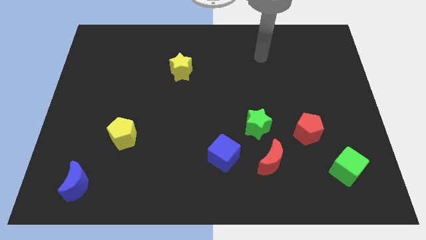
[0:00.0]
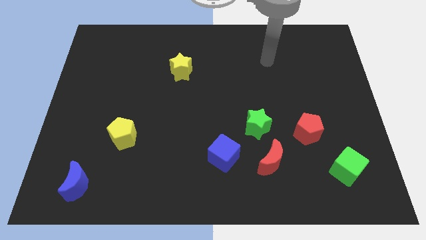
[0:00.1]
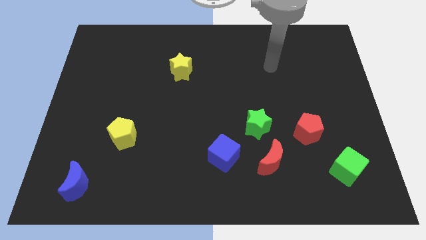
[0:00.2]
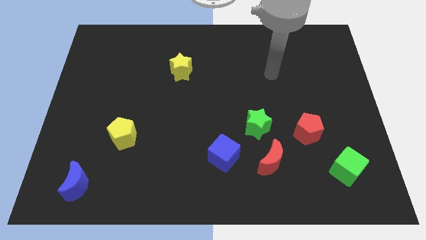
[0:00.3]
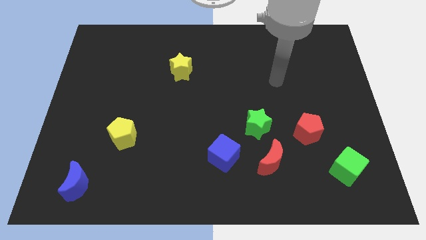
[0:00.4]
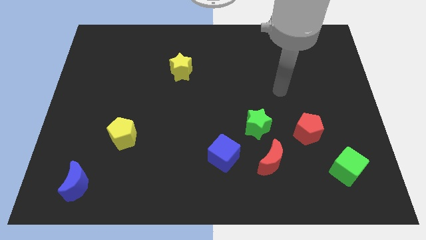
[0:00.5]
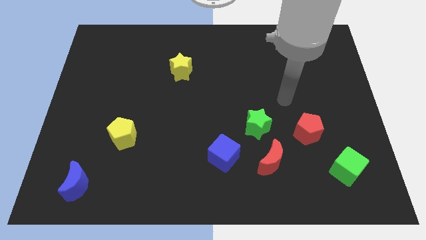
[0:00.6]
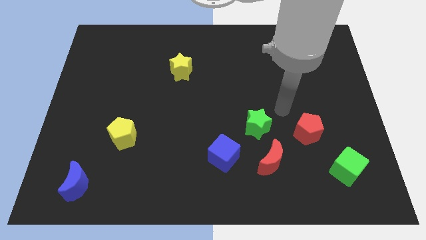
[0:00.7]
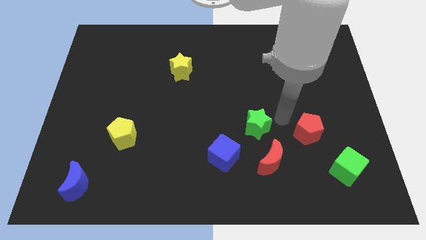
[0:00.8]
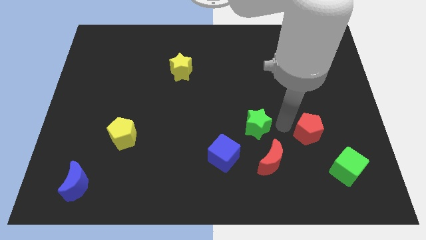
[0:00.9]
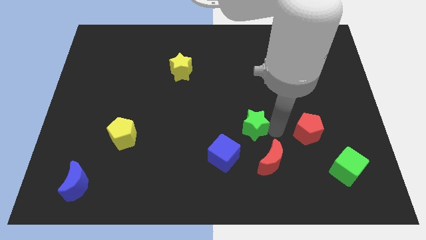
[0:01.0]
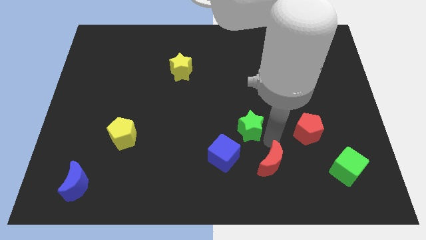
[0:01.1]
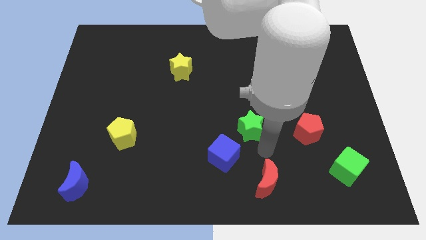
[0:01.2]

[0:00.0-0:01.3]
move the green star away from the red moon

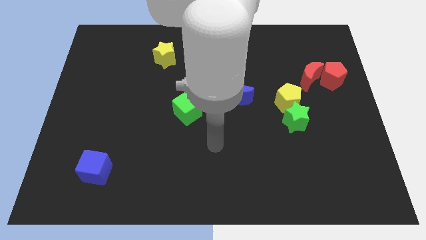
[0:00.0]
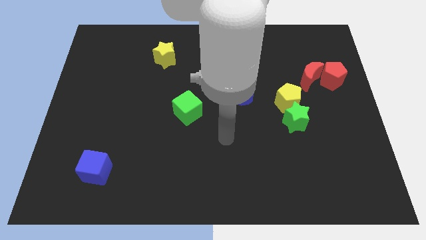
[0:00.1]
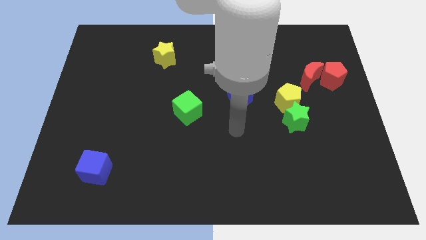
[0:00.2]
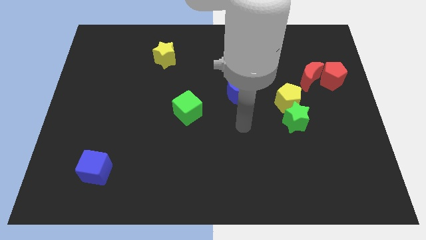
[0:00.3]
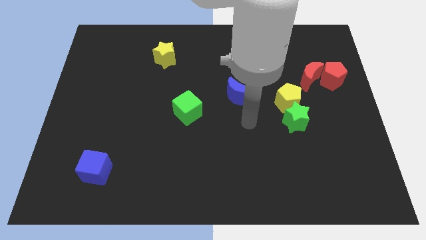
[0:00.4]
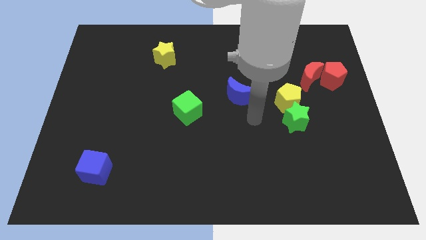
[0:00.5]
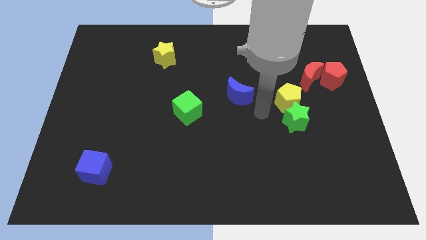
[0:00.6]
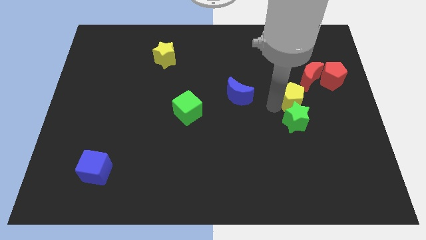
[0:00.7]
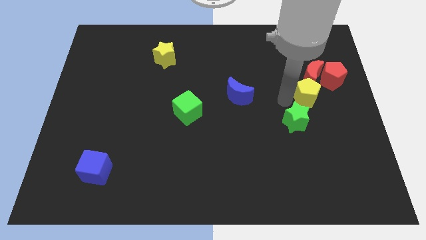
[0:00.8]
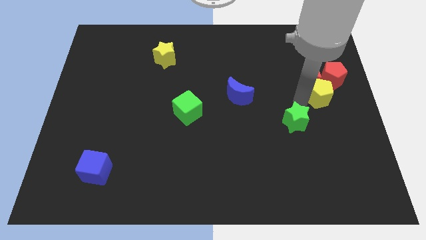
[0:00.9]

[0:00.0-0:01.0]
pull the green star apart from the yellow pentagon

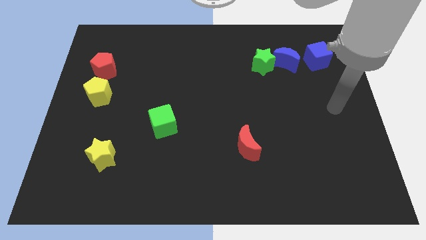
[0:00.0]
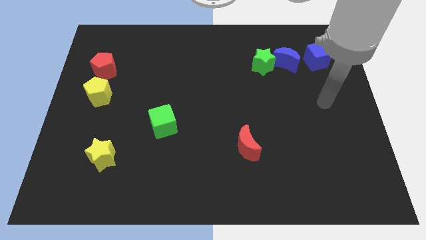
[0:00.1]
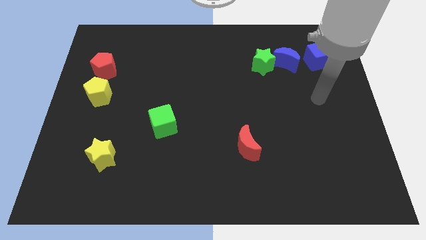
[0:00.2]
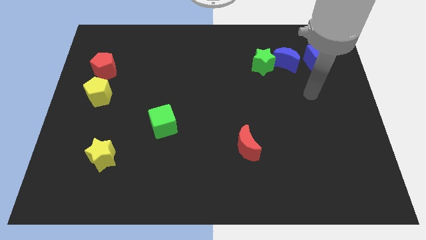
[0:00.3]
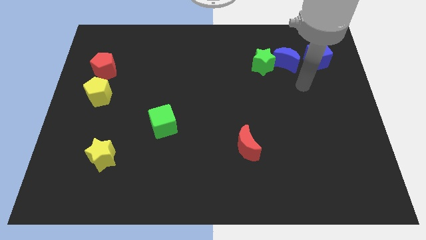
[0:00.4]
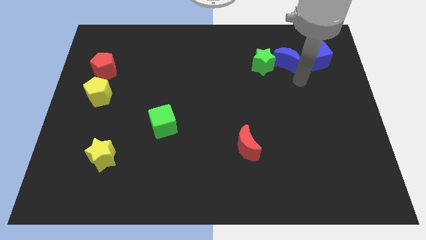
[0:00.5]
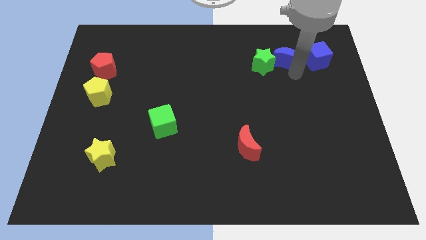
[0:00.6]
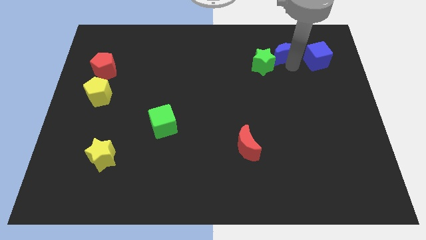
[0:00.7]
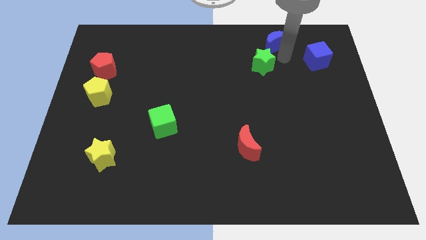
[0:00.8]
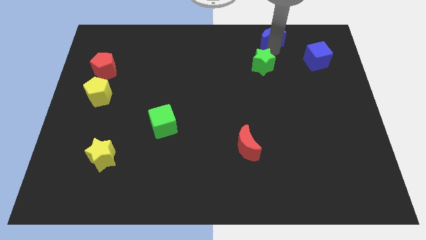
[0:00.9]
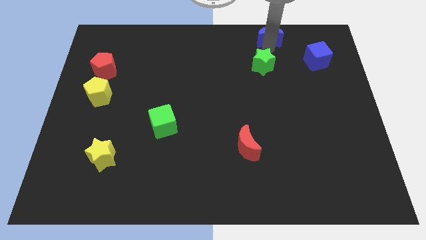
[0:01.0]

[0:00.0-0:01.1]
separate the green star from the blue moon

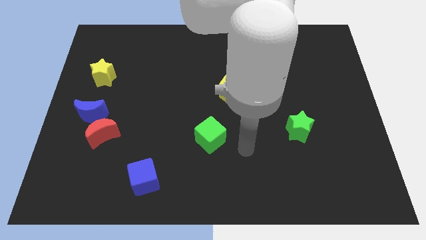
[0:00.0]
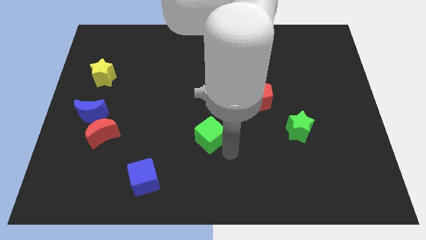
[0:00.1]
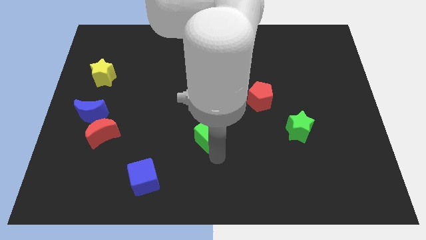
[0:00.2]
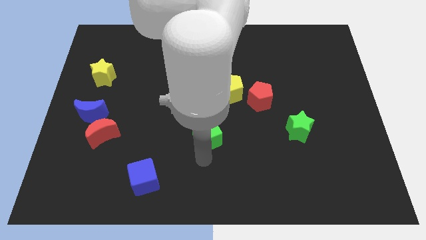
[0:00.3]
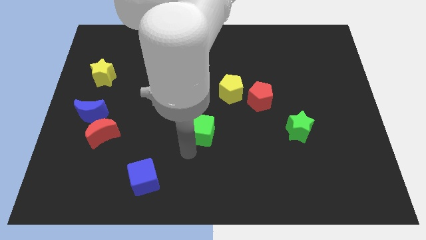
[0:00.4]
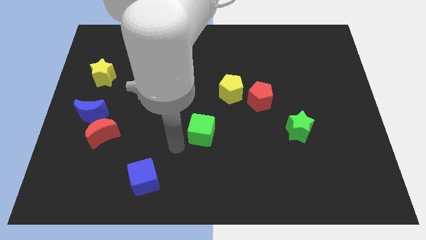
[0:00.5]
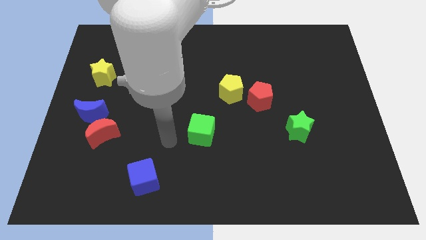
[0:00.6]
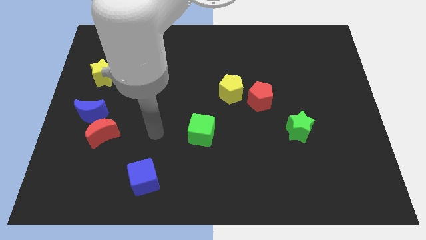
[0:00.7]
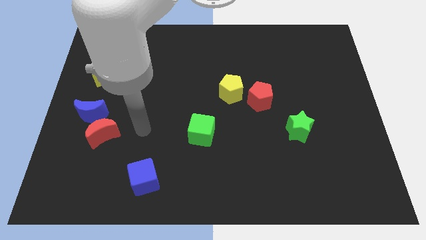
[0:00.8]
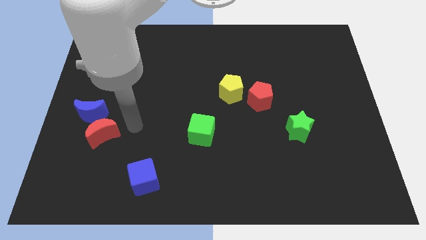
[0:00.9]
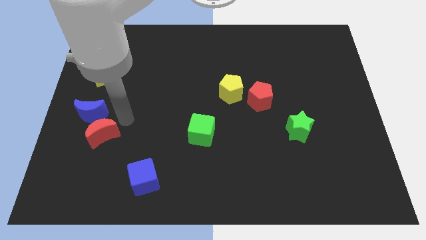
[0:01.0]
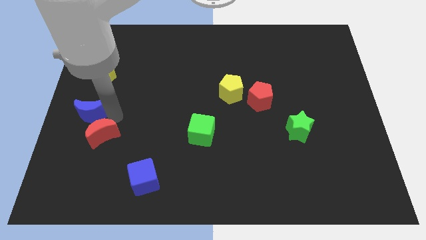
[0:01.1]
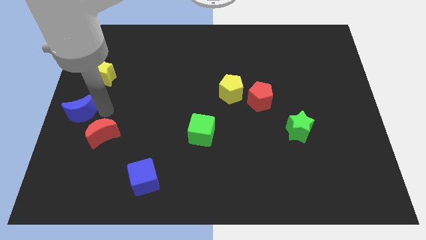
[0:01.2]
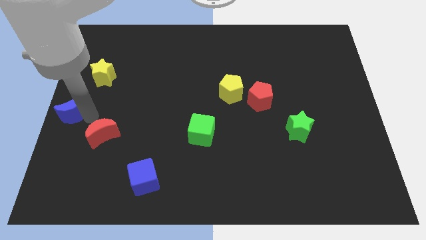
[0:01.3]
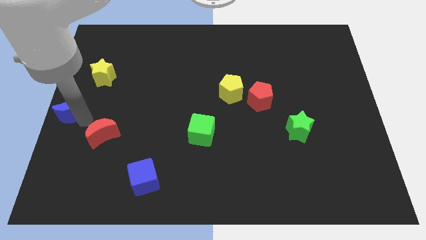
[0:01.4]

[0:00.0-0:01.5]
move the red moon away from the blue moon

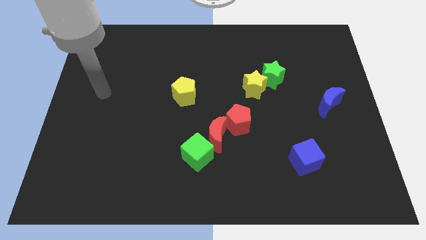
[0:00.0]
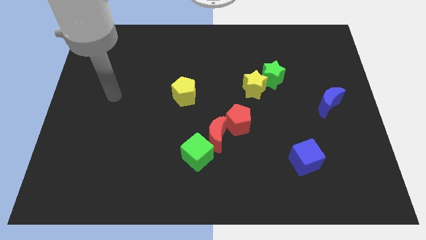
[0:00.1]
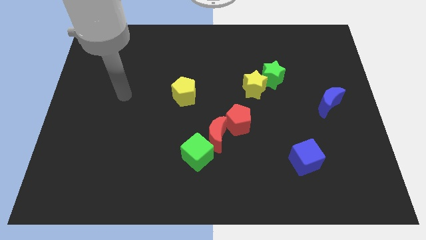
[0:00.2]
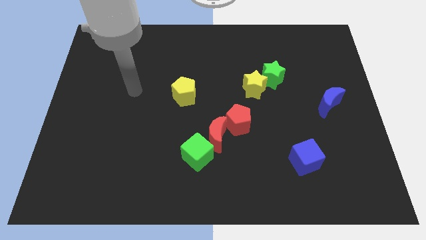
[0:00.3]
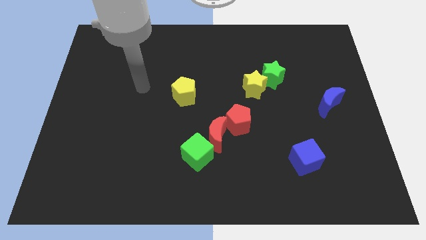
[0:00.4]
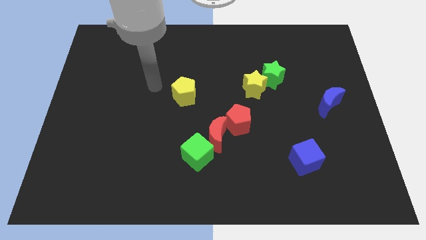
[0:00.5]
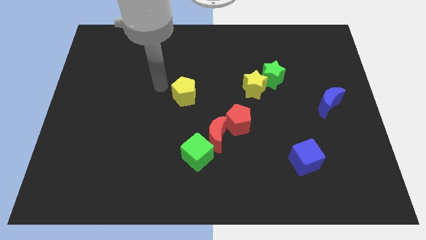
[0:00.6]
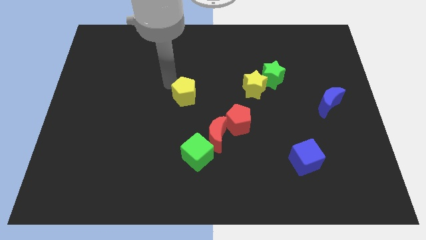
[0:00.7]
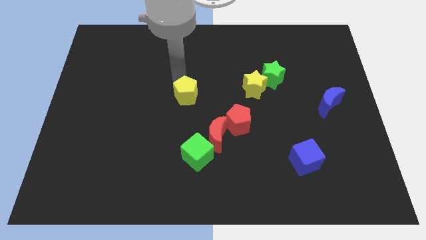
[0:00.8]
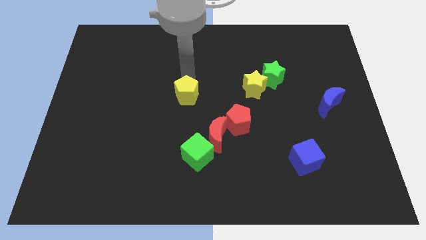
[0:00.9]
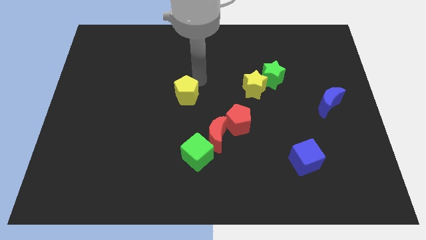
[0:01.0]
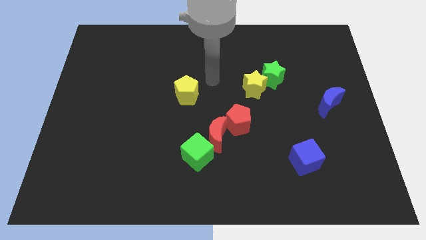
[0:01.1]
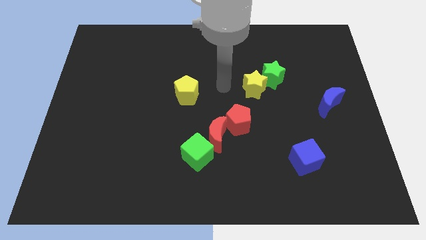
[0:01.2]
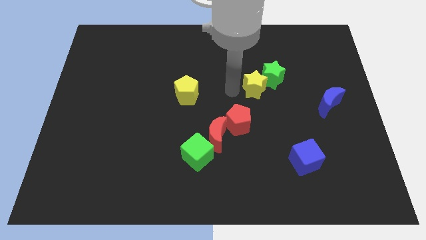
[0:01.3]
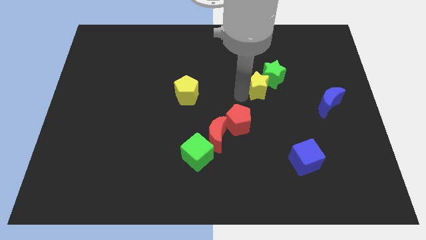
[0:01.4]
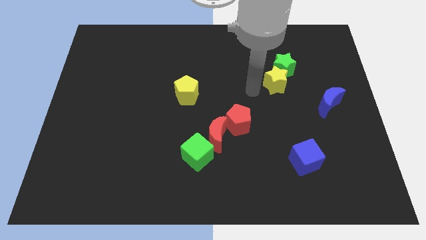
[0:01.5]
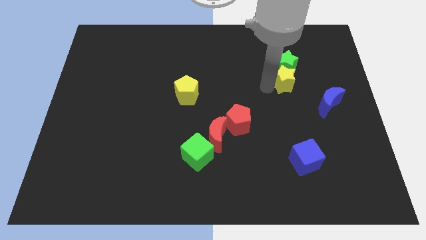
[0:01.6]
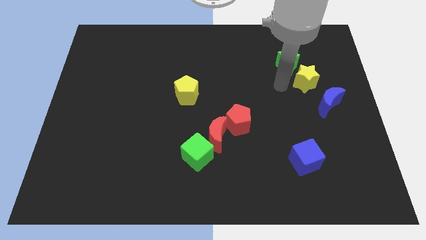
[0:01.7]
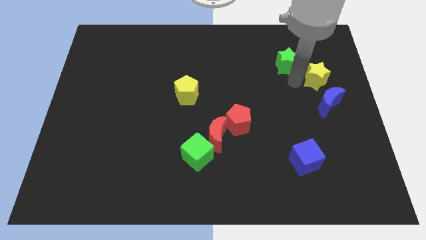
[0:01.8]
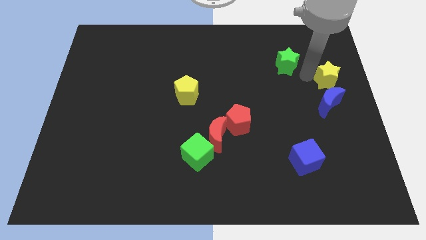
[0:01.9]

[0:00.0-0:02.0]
pull the green star apart from the yellow star

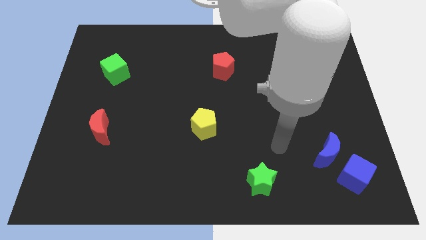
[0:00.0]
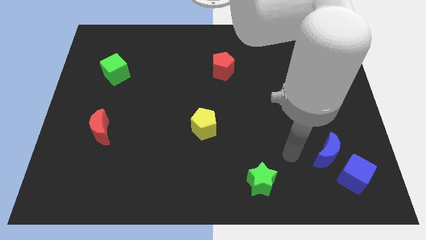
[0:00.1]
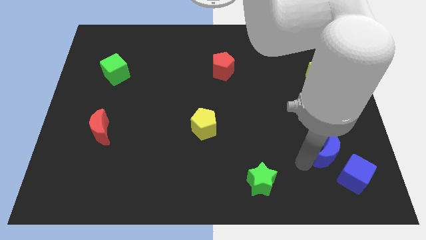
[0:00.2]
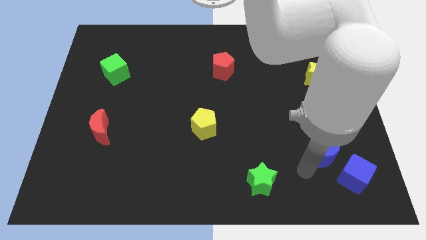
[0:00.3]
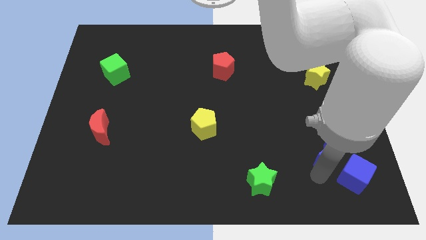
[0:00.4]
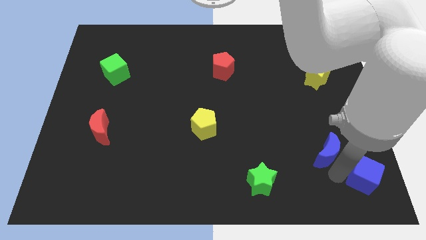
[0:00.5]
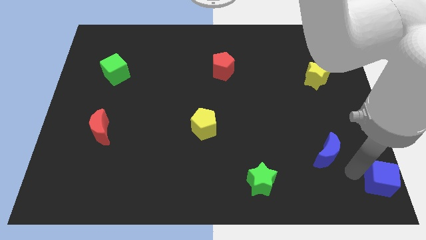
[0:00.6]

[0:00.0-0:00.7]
move the blue moon away from the blue cube

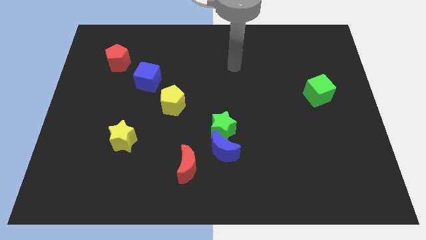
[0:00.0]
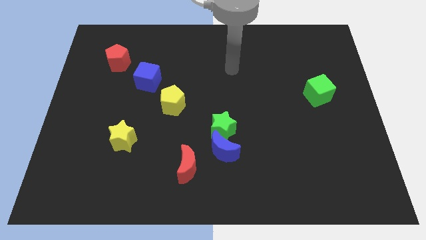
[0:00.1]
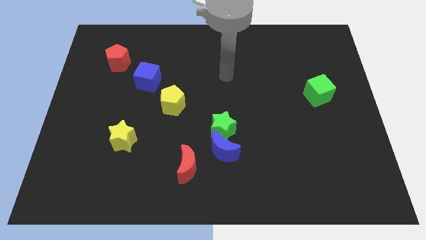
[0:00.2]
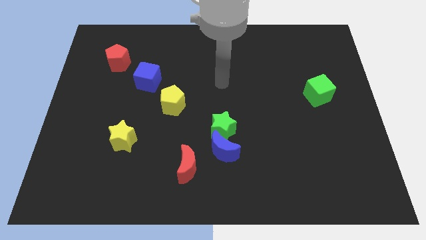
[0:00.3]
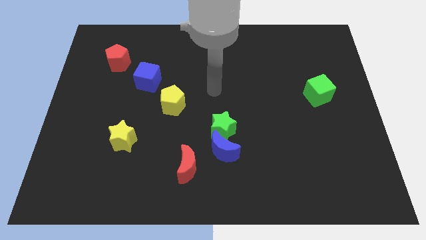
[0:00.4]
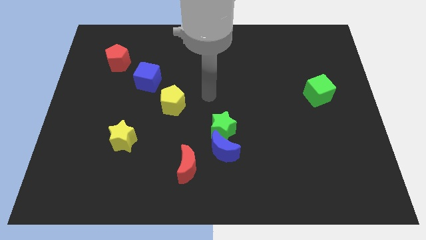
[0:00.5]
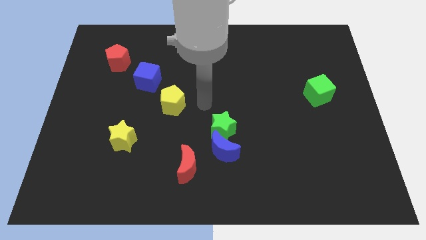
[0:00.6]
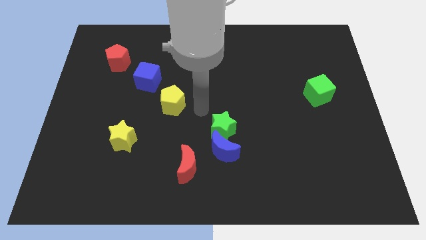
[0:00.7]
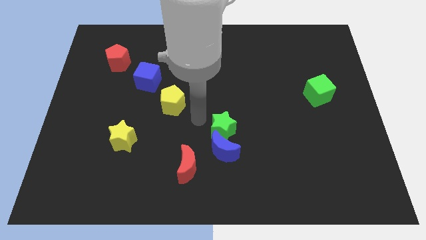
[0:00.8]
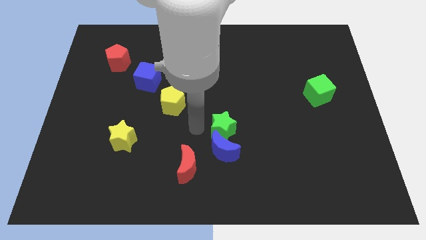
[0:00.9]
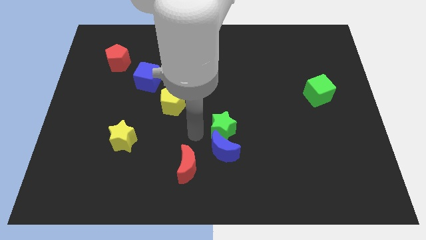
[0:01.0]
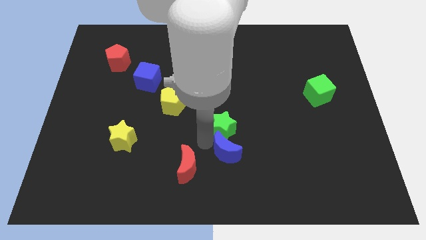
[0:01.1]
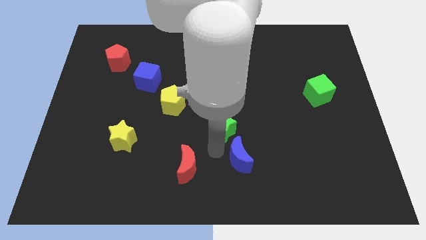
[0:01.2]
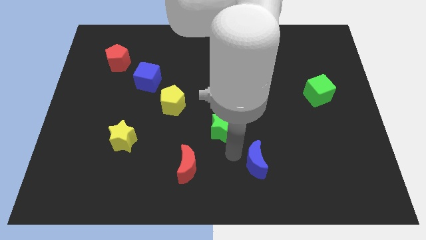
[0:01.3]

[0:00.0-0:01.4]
pull the green star apart from the blue moon

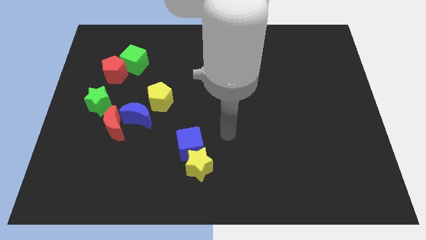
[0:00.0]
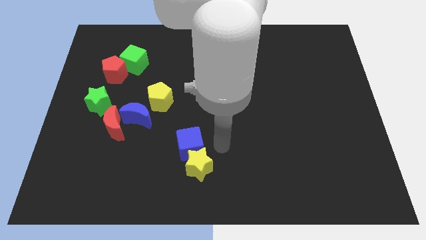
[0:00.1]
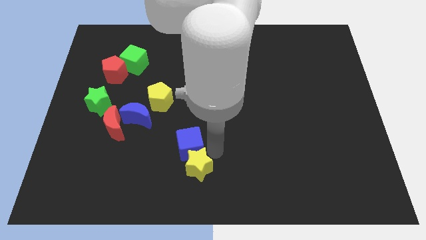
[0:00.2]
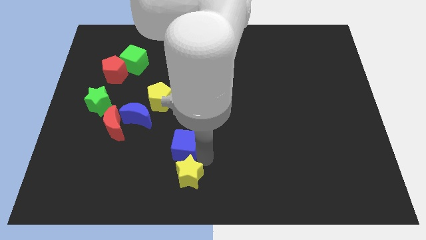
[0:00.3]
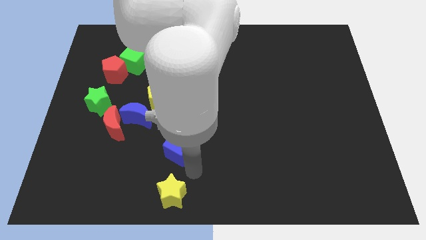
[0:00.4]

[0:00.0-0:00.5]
pull the blue cube apart from the yellow star
